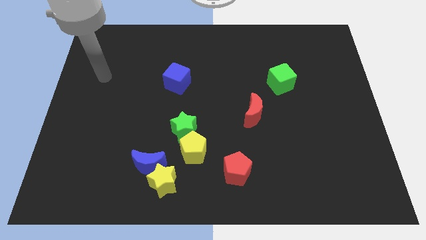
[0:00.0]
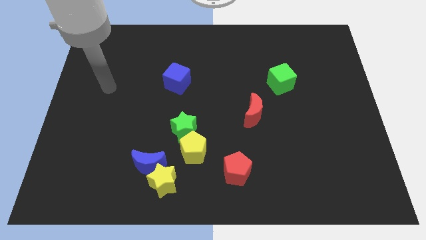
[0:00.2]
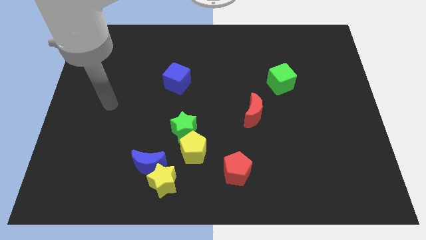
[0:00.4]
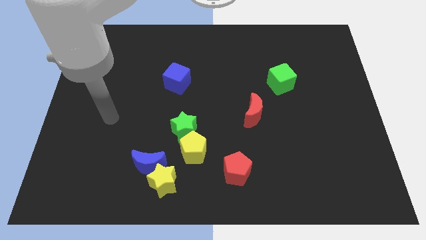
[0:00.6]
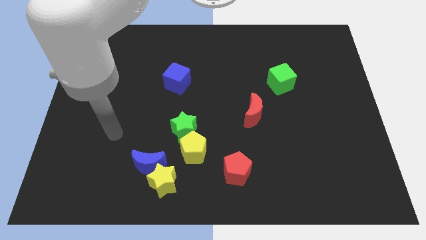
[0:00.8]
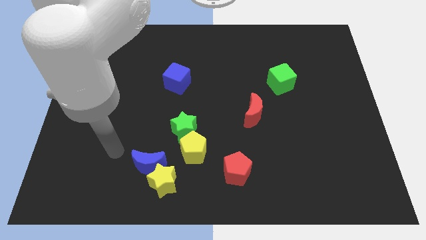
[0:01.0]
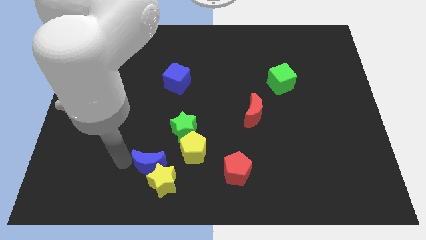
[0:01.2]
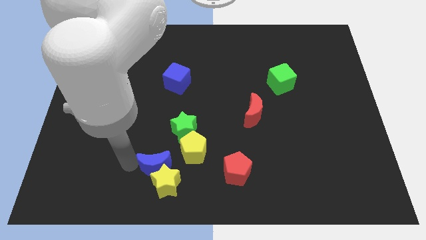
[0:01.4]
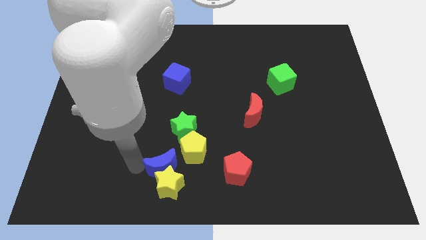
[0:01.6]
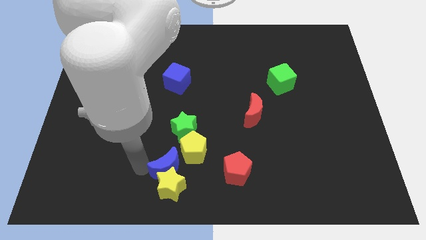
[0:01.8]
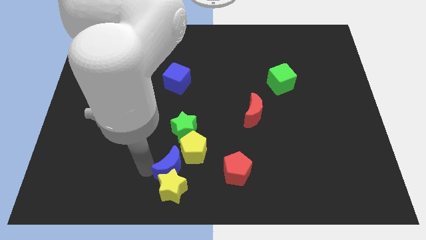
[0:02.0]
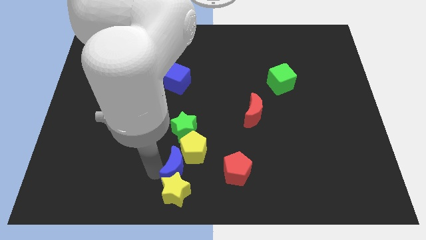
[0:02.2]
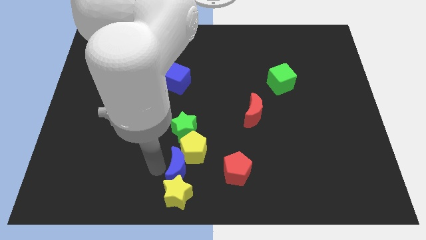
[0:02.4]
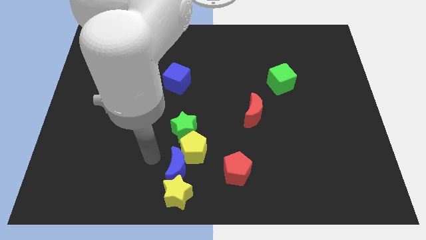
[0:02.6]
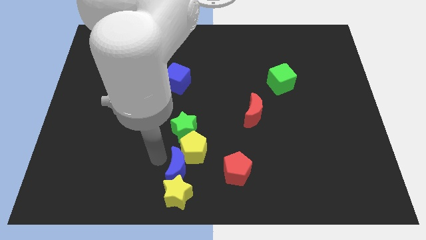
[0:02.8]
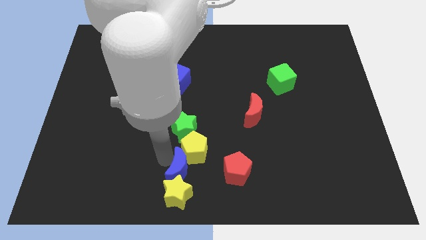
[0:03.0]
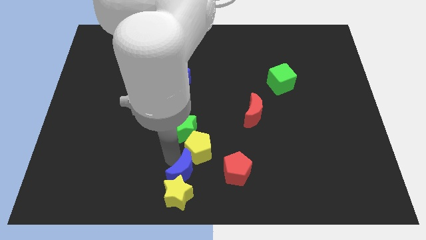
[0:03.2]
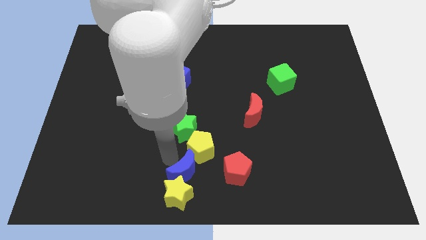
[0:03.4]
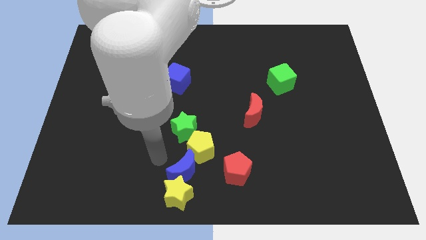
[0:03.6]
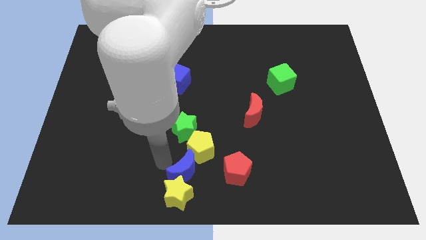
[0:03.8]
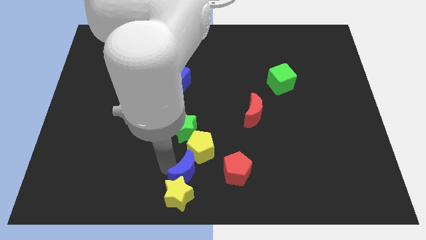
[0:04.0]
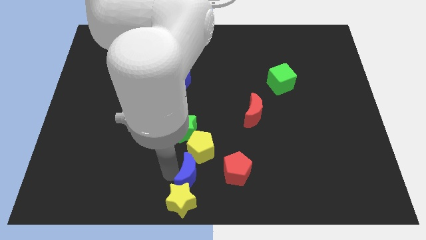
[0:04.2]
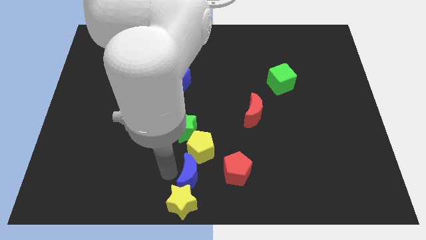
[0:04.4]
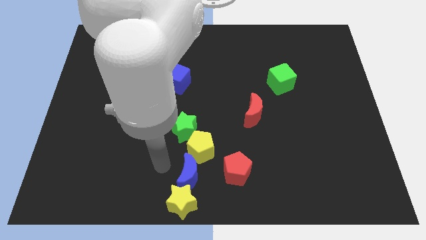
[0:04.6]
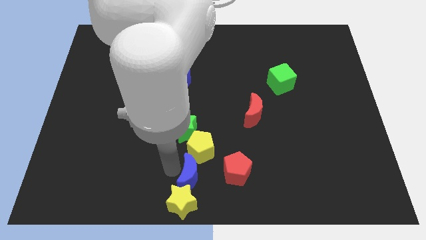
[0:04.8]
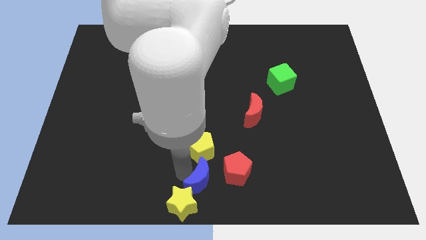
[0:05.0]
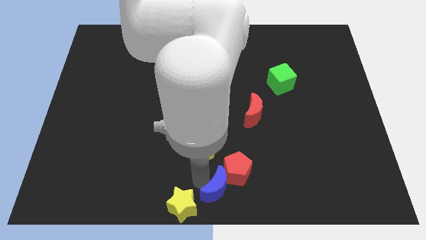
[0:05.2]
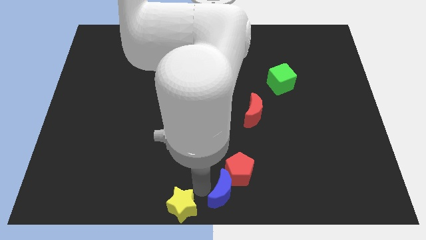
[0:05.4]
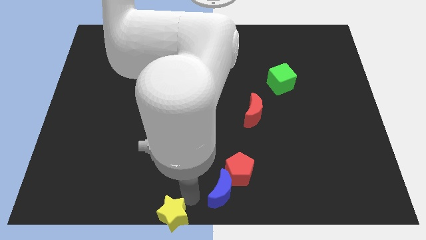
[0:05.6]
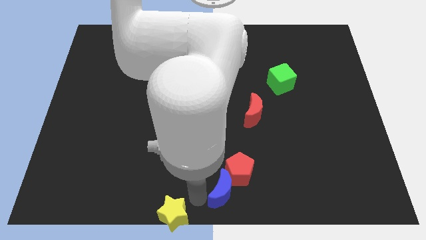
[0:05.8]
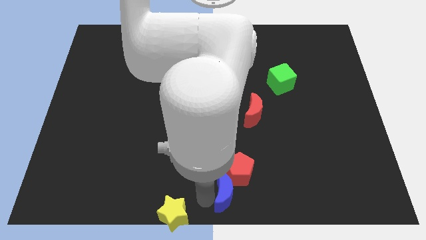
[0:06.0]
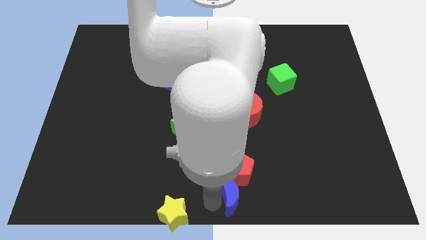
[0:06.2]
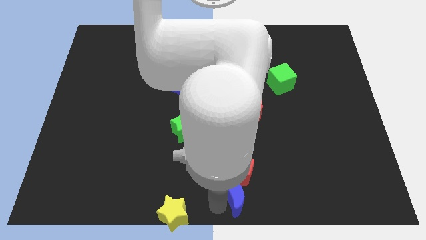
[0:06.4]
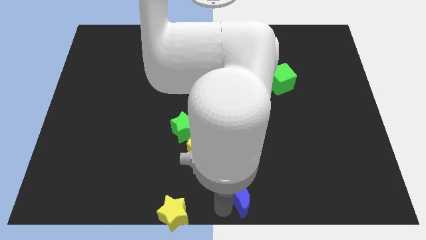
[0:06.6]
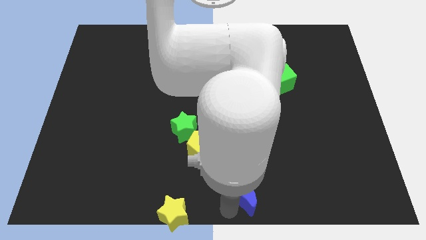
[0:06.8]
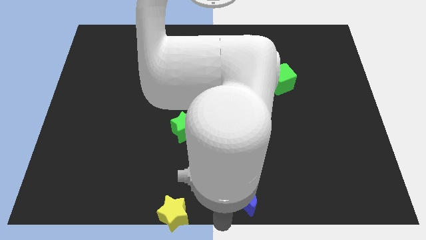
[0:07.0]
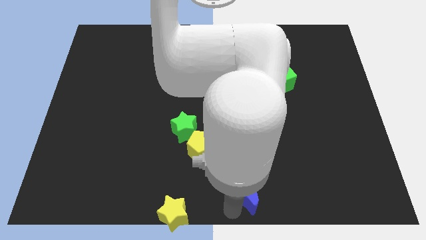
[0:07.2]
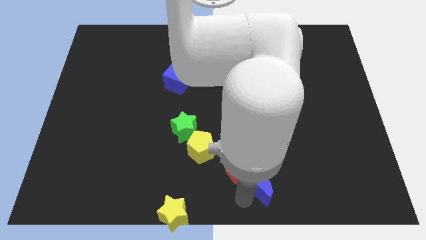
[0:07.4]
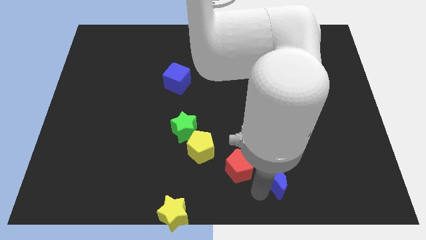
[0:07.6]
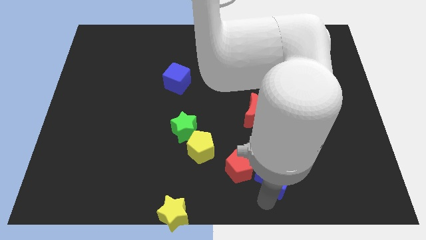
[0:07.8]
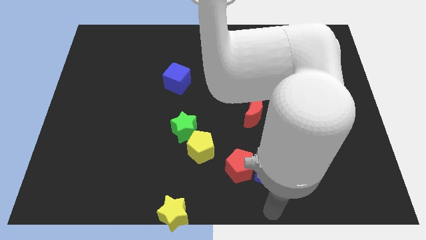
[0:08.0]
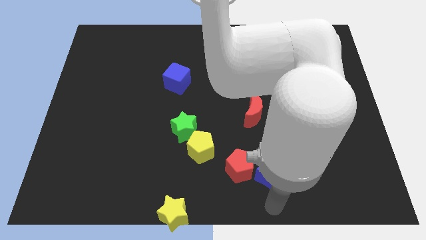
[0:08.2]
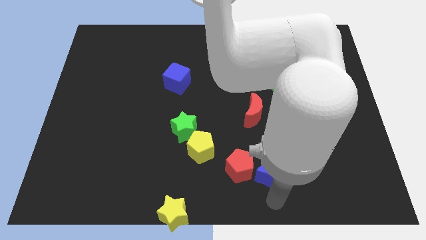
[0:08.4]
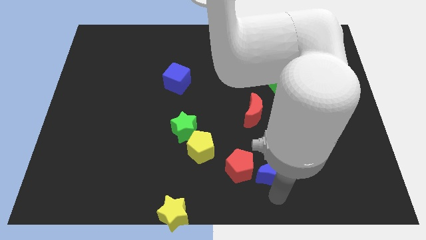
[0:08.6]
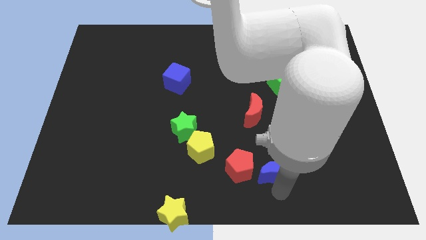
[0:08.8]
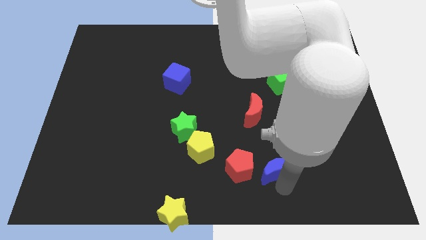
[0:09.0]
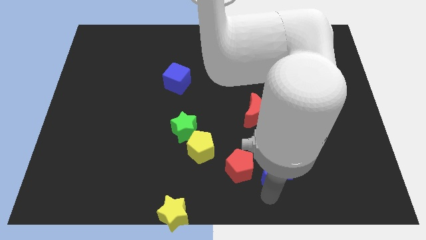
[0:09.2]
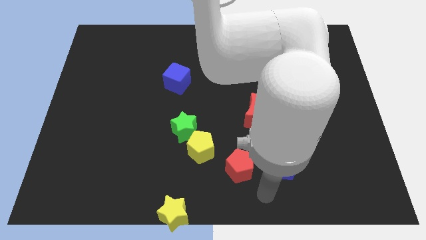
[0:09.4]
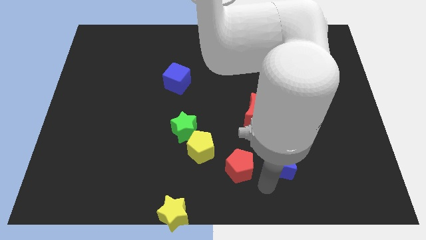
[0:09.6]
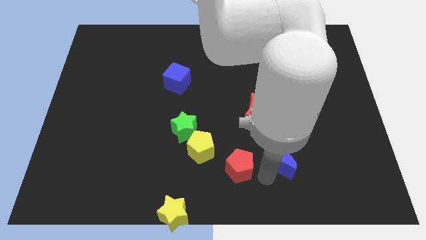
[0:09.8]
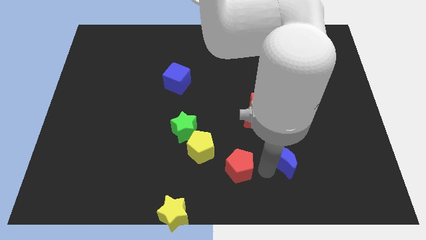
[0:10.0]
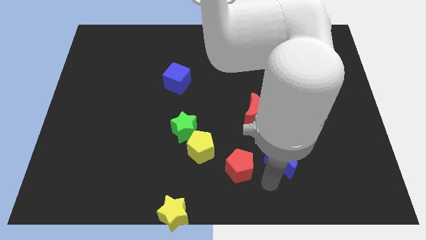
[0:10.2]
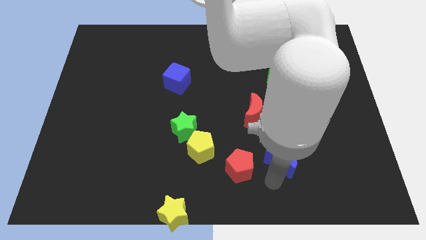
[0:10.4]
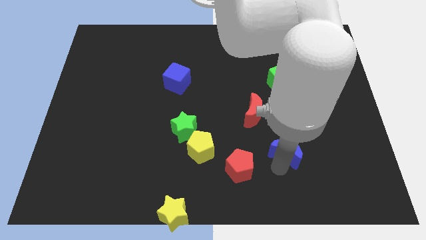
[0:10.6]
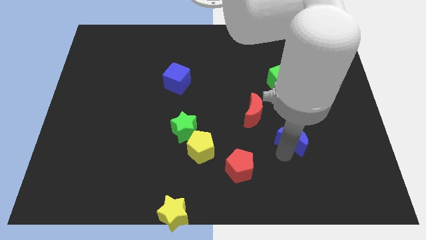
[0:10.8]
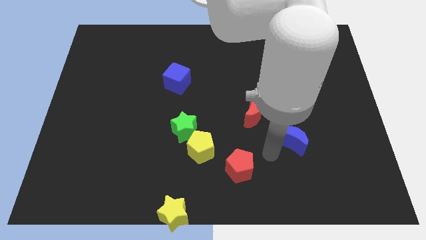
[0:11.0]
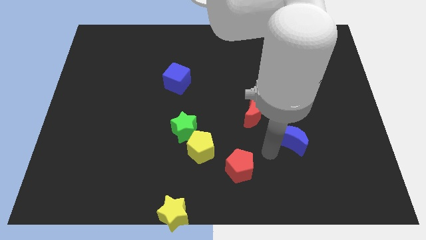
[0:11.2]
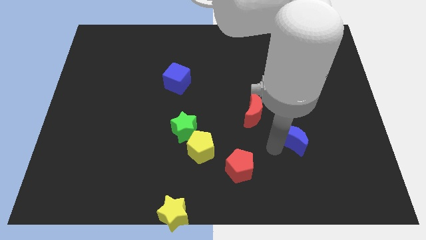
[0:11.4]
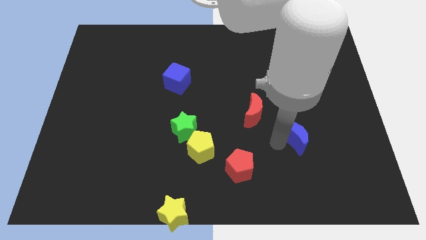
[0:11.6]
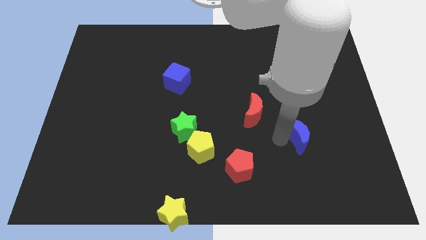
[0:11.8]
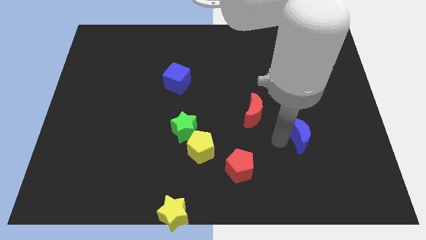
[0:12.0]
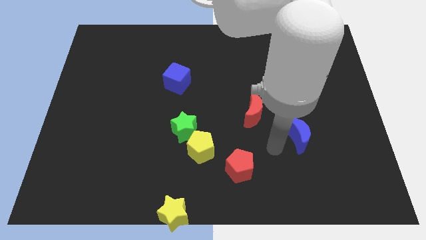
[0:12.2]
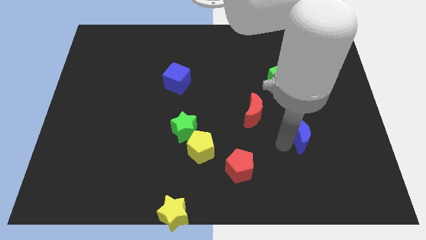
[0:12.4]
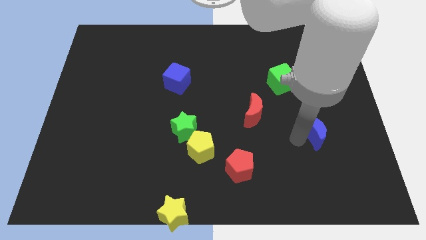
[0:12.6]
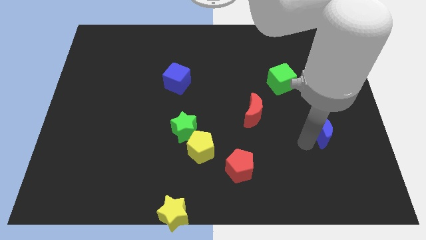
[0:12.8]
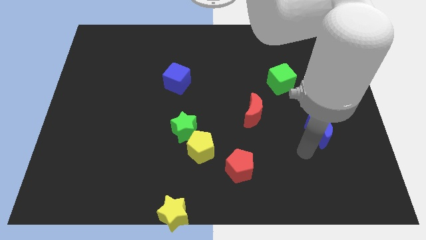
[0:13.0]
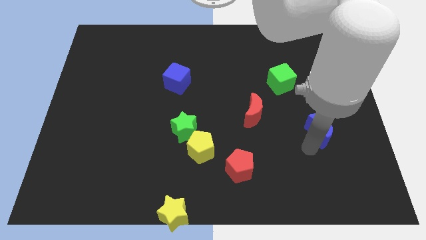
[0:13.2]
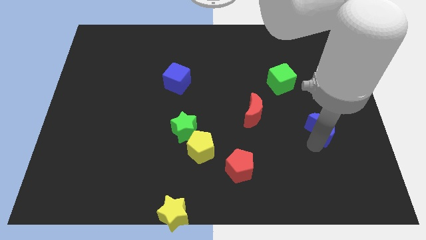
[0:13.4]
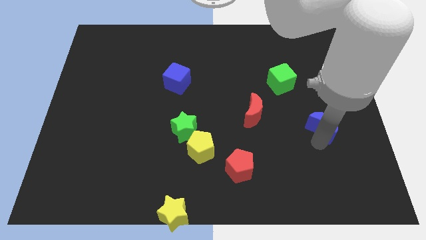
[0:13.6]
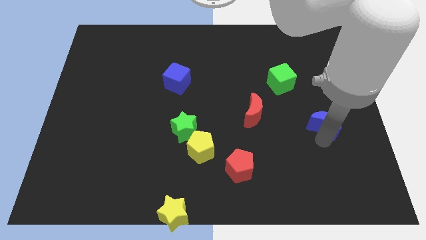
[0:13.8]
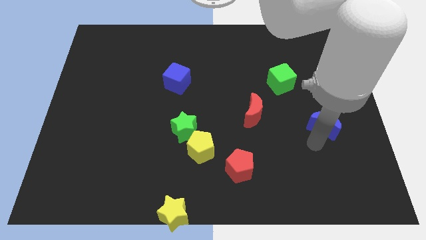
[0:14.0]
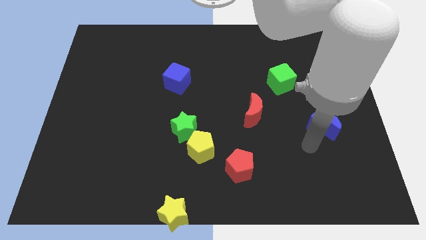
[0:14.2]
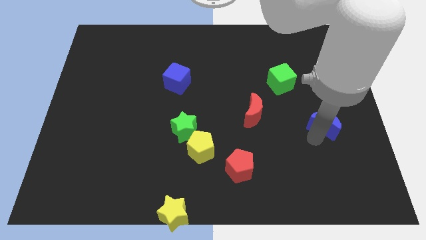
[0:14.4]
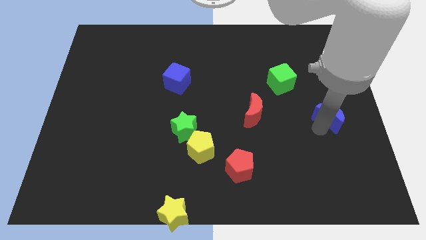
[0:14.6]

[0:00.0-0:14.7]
put the blue moon to the center right
